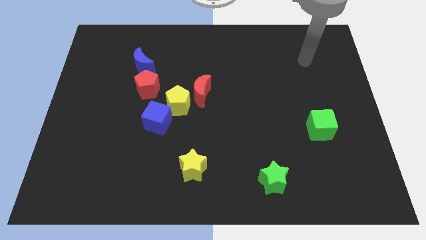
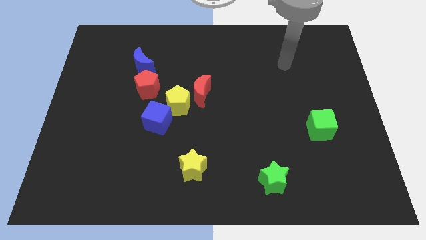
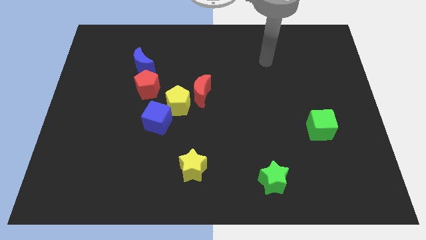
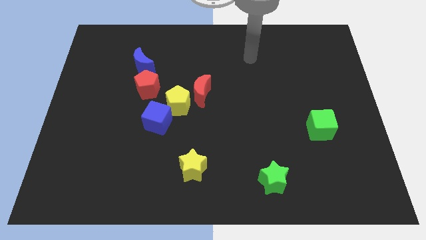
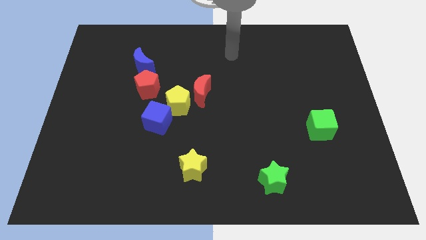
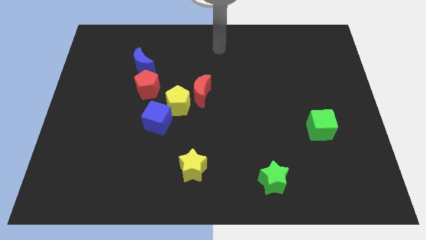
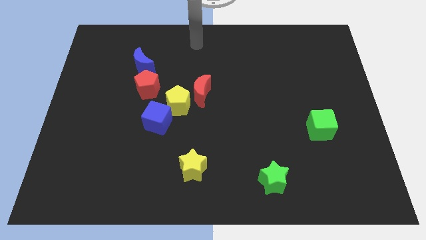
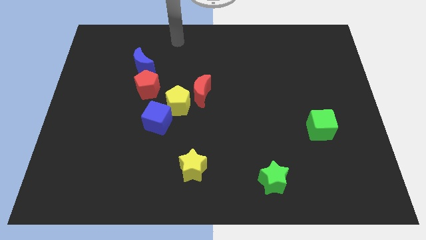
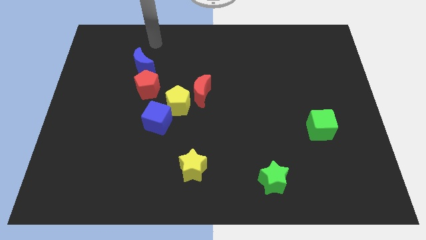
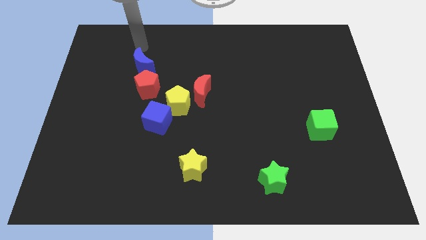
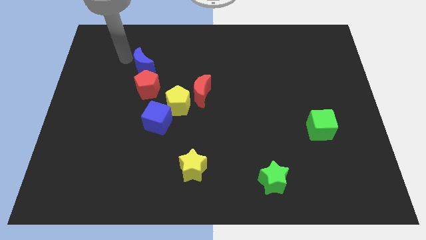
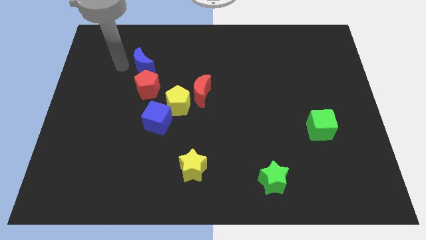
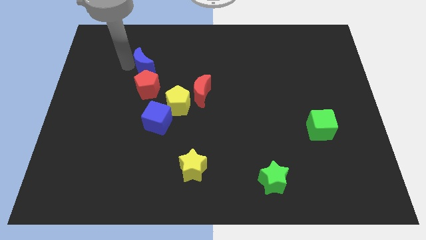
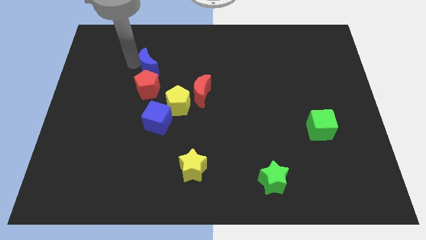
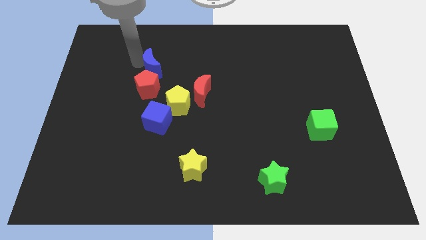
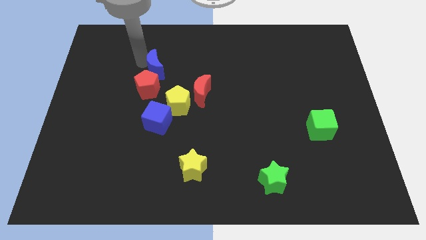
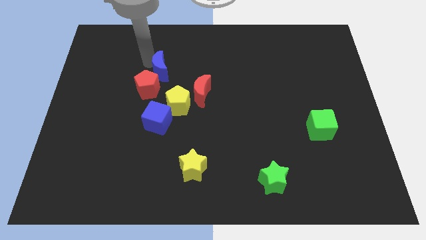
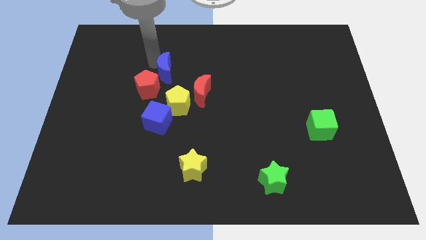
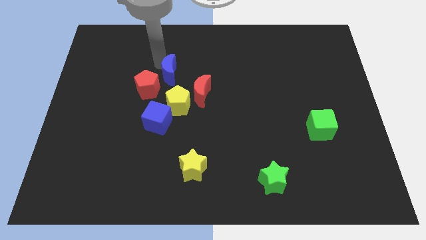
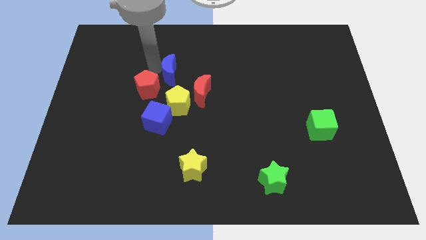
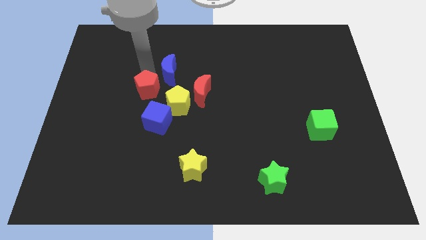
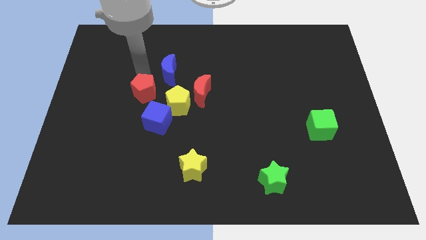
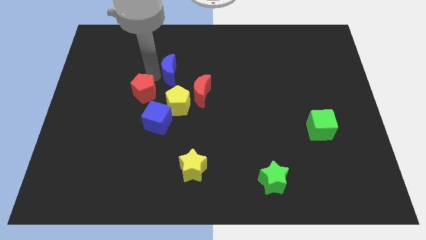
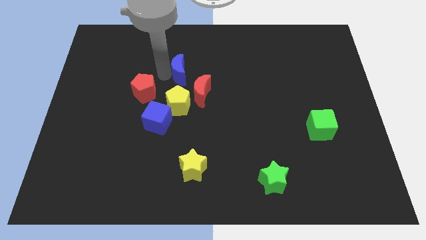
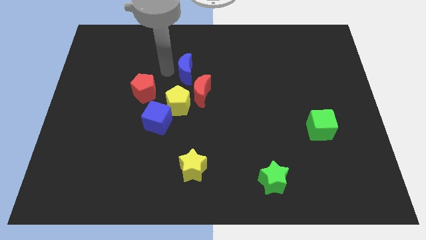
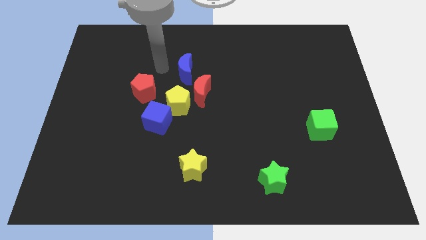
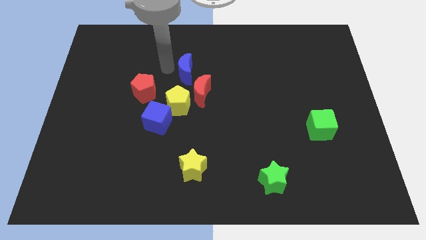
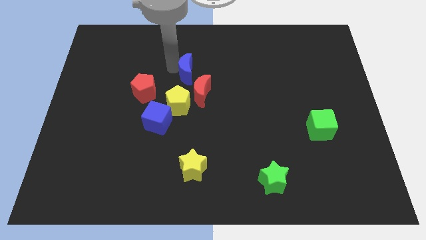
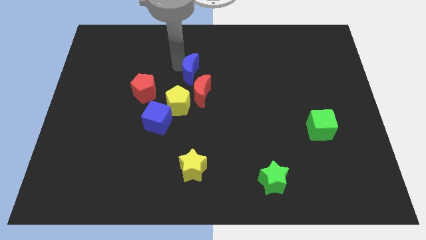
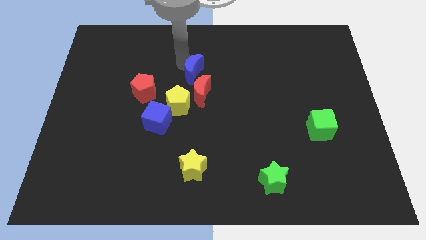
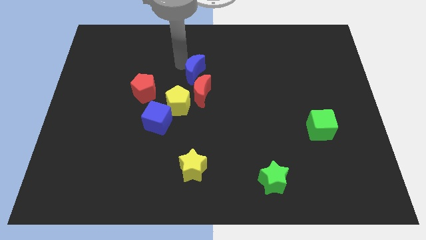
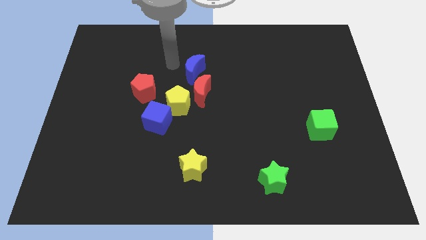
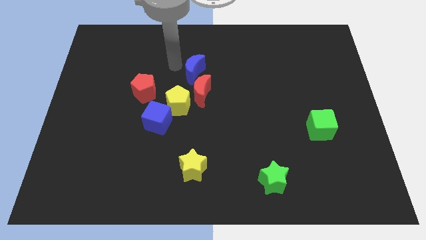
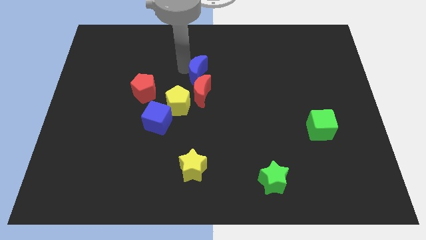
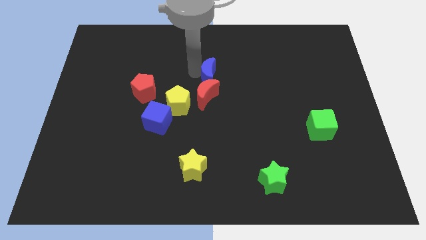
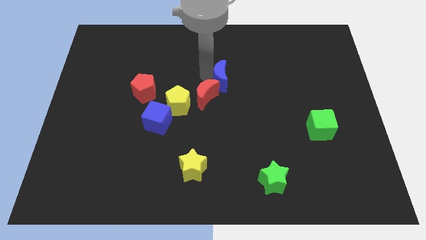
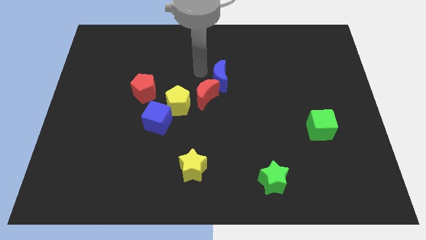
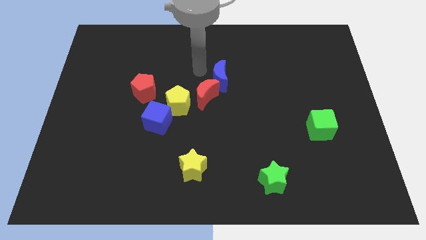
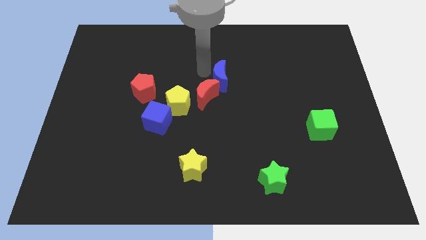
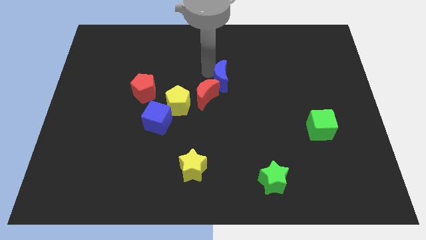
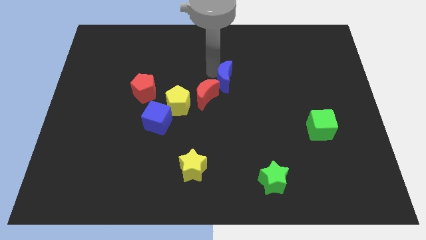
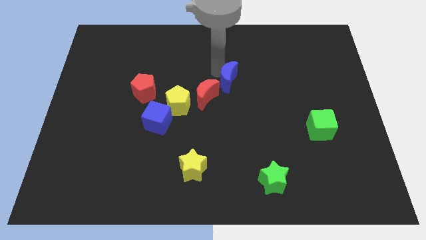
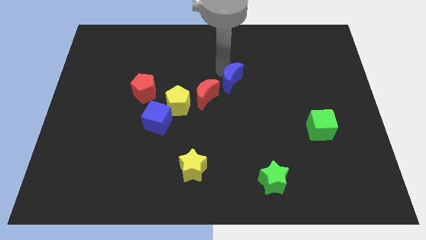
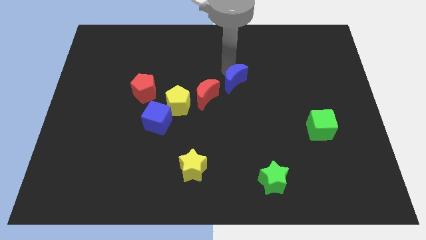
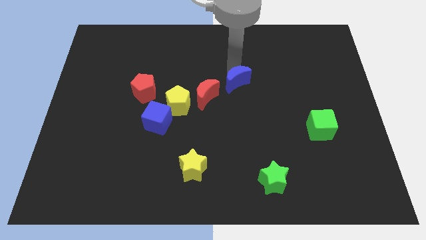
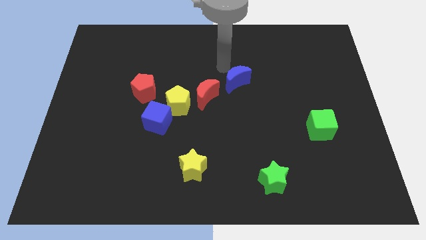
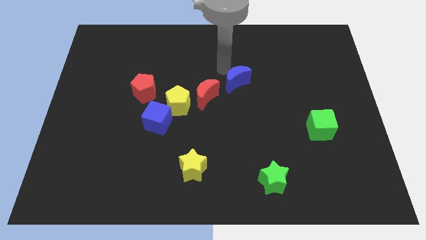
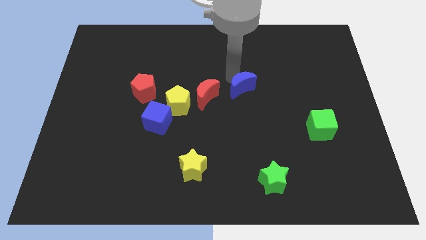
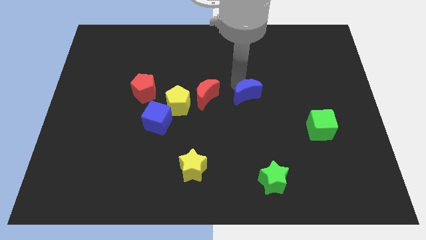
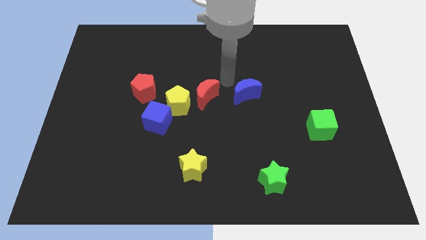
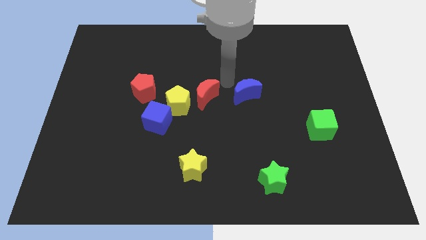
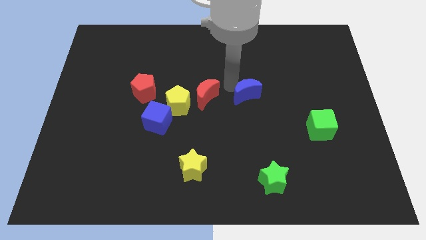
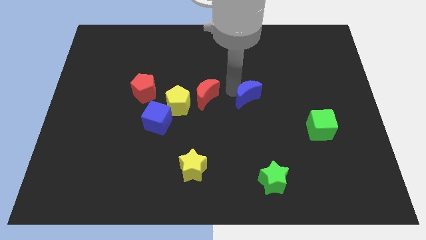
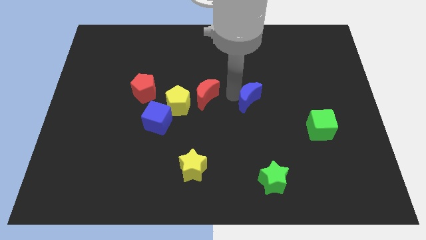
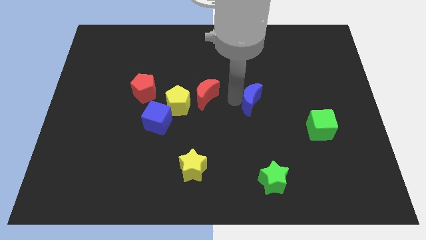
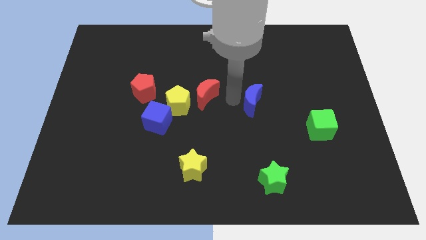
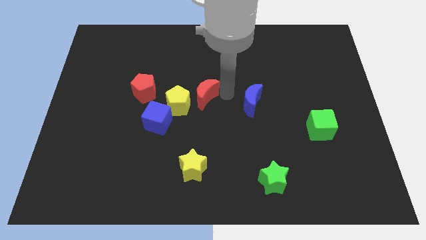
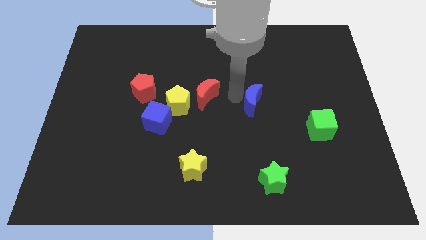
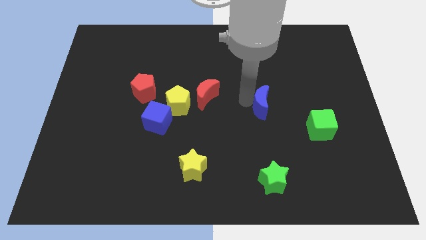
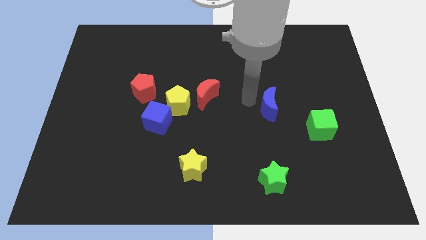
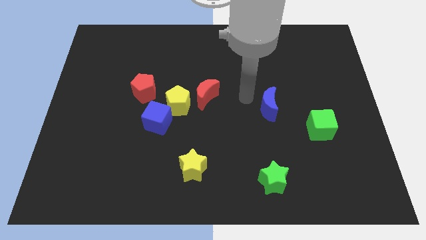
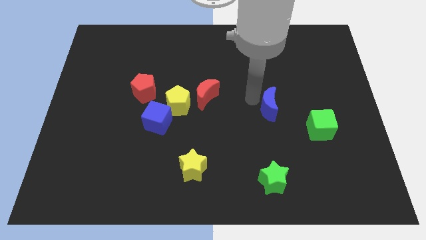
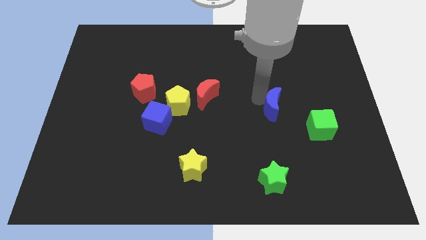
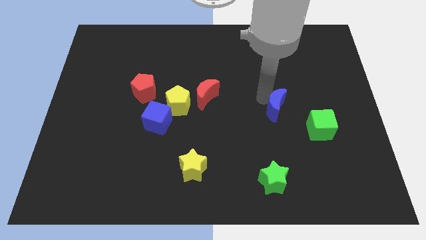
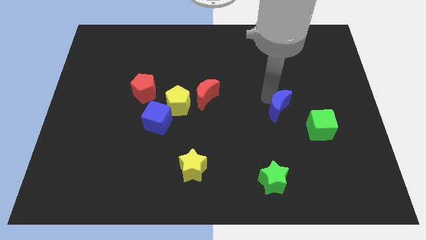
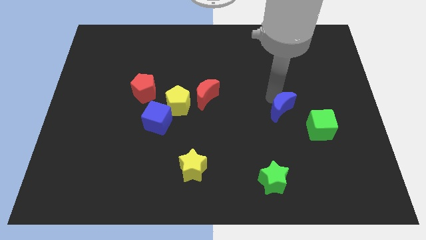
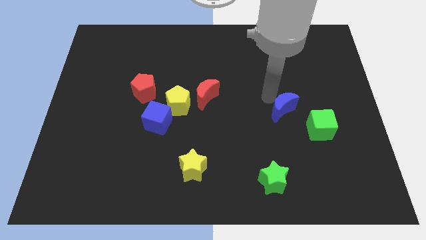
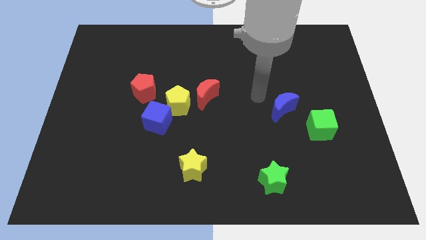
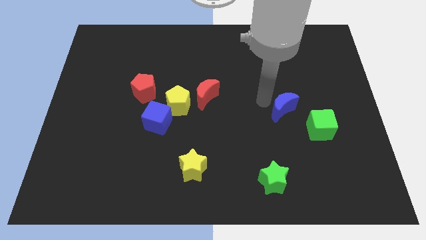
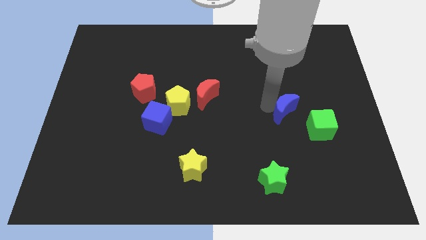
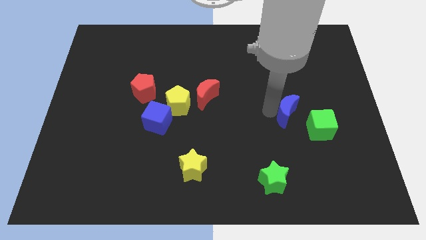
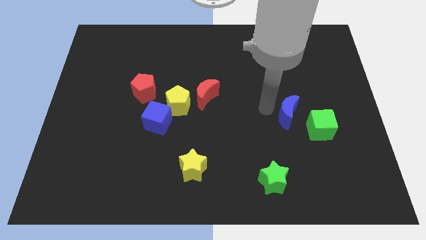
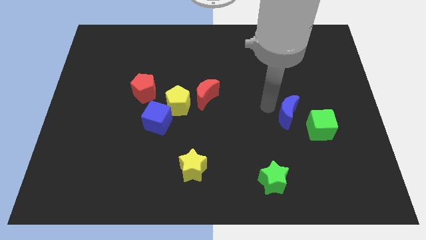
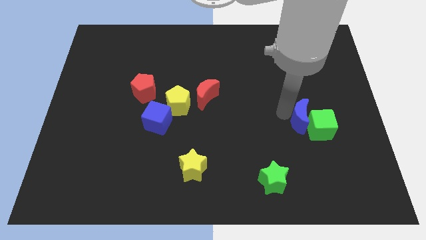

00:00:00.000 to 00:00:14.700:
put the blue moon close to the green cube

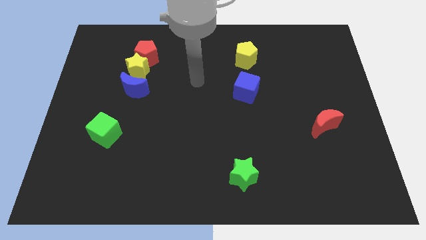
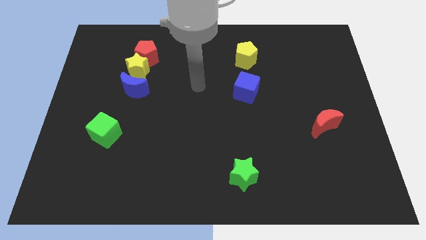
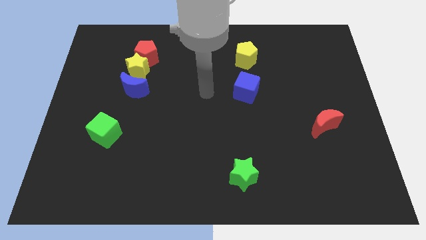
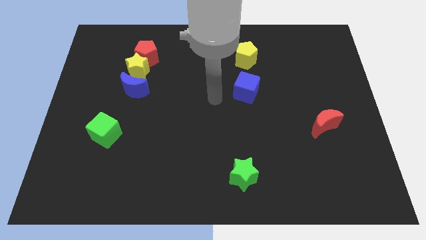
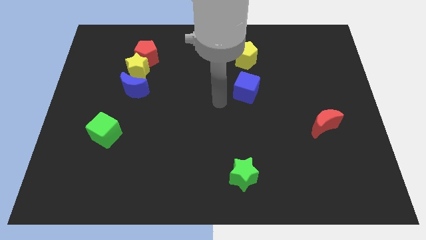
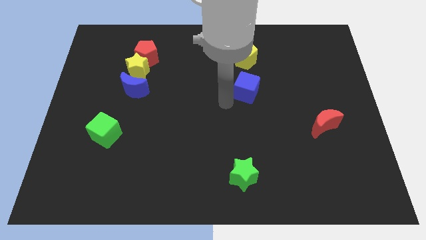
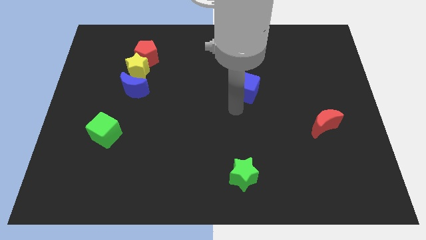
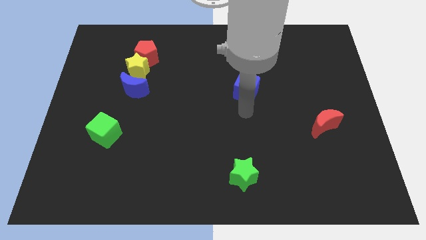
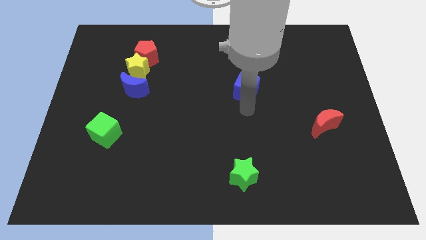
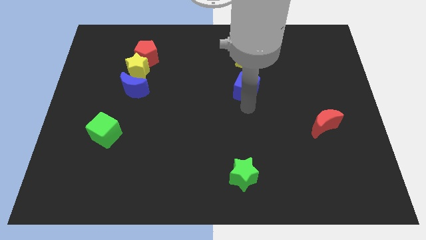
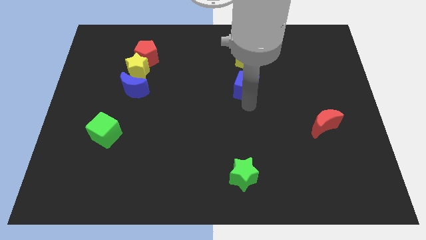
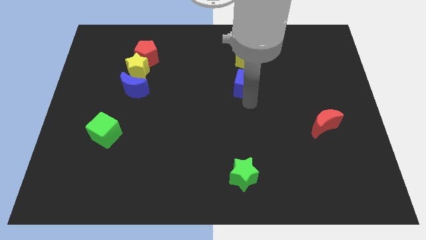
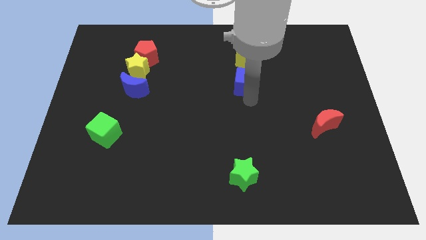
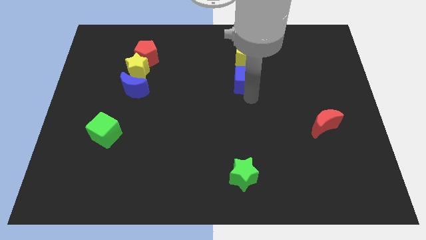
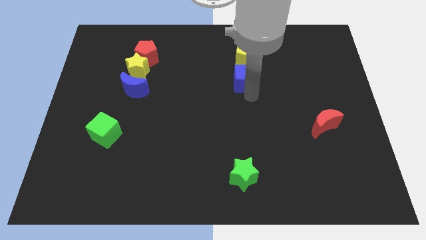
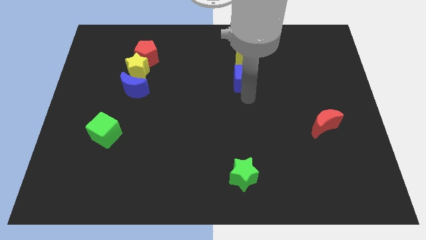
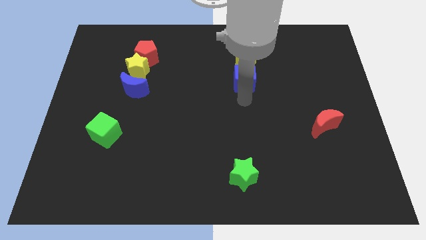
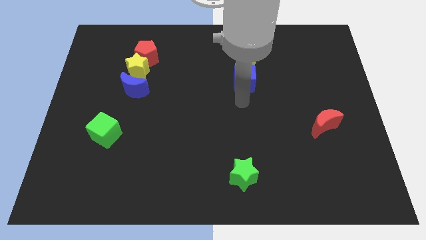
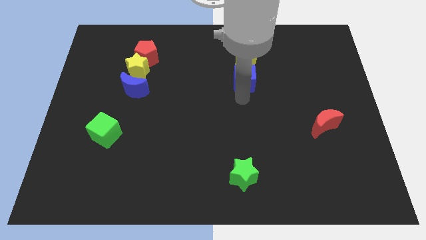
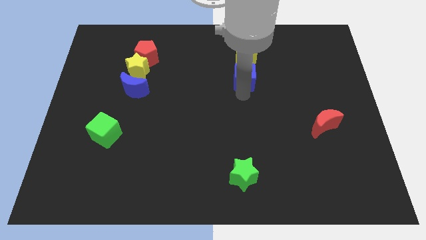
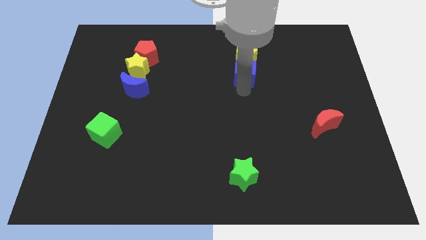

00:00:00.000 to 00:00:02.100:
push the blue cube towards the yellow pentagon
